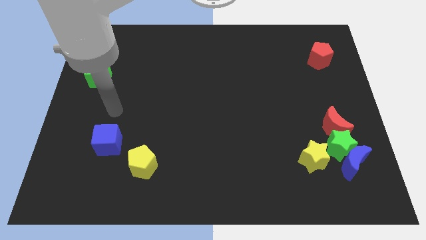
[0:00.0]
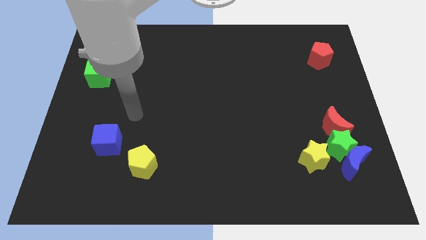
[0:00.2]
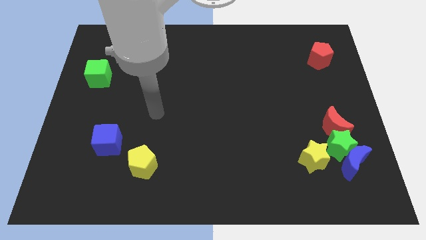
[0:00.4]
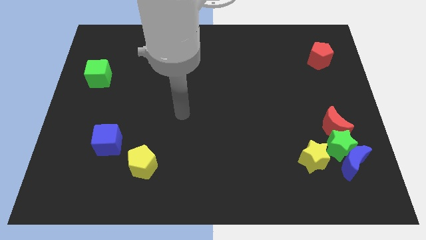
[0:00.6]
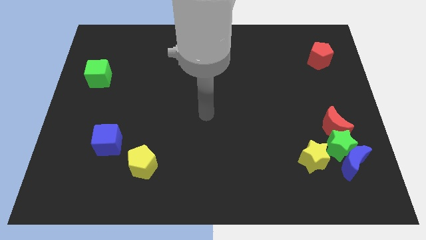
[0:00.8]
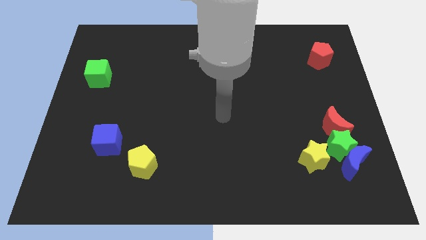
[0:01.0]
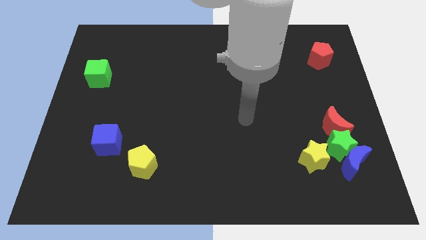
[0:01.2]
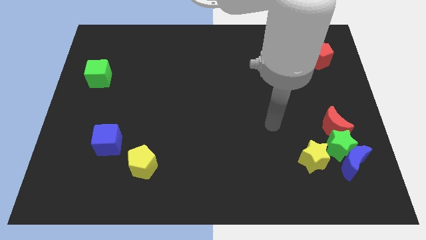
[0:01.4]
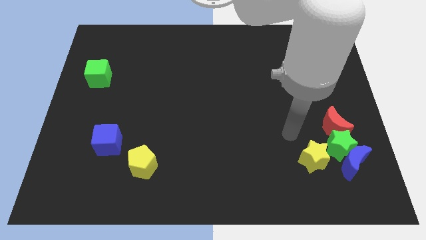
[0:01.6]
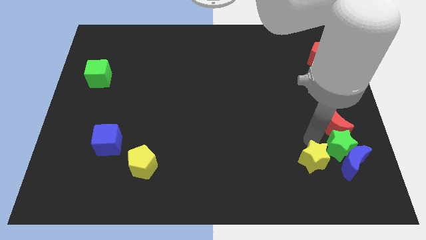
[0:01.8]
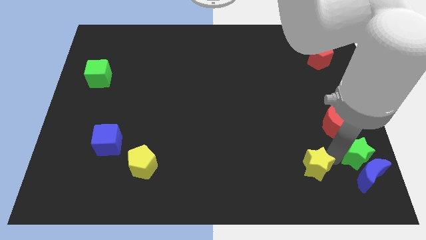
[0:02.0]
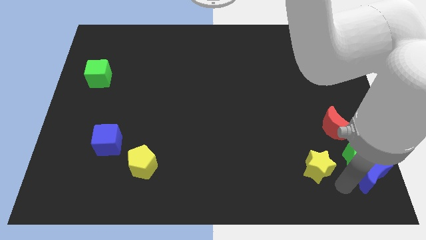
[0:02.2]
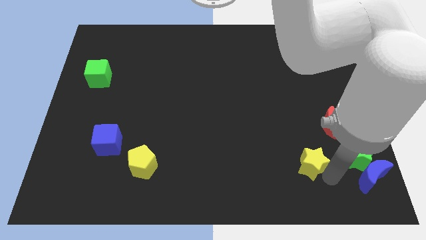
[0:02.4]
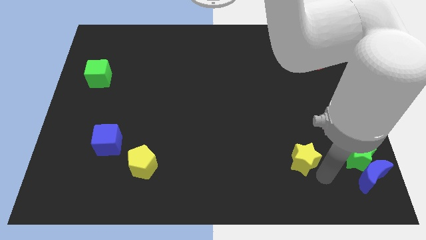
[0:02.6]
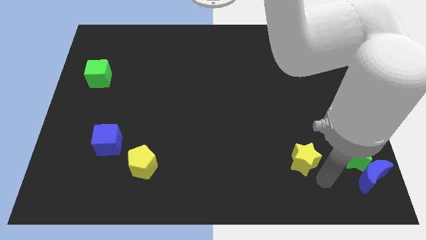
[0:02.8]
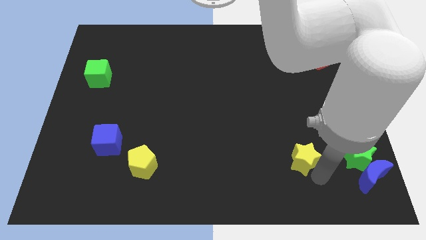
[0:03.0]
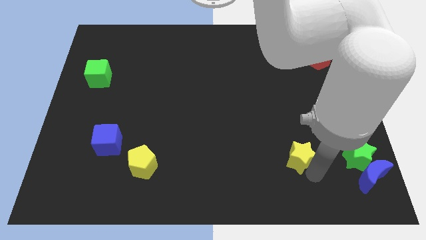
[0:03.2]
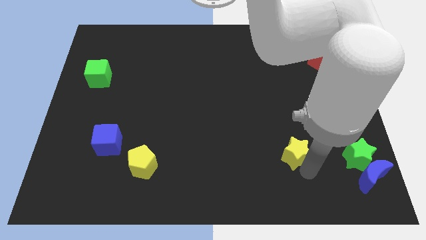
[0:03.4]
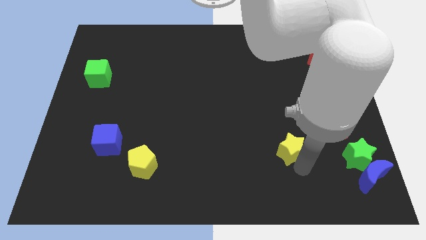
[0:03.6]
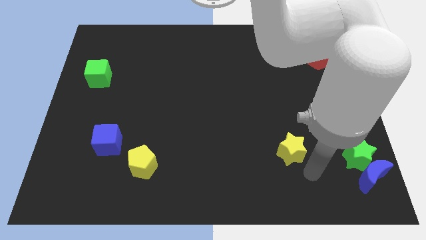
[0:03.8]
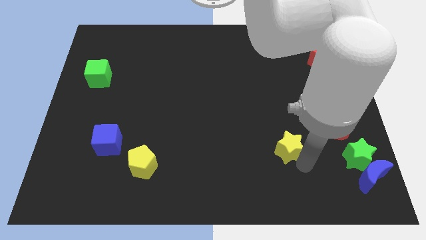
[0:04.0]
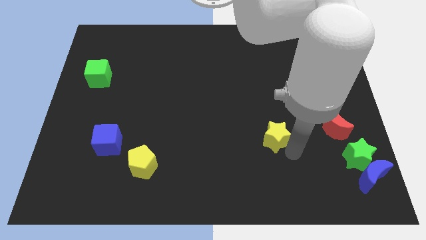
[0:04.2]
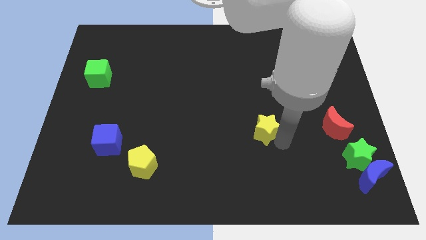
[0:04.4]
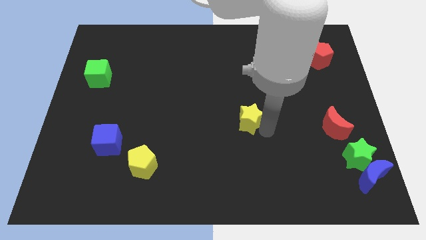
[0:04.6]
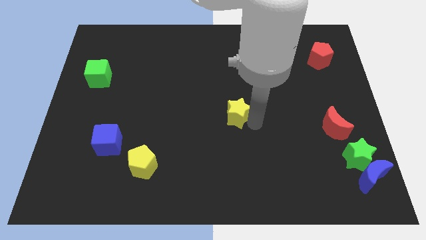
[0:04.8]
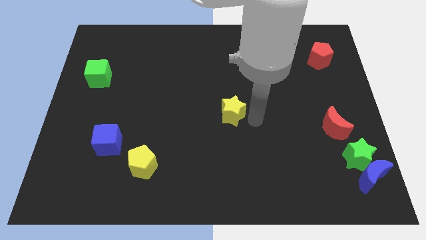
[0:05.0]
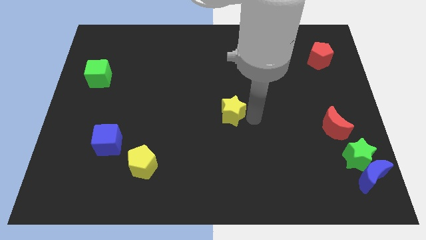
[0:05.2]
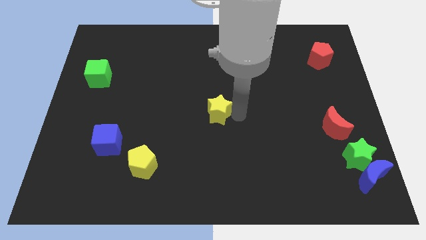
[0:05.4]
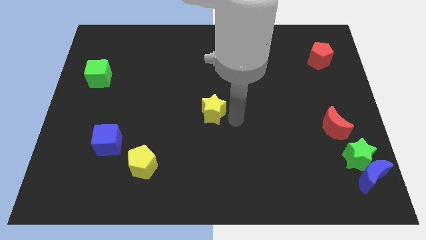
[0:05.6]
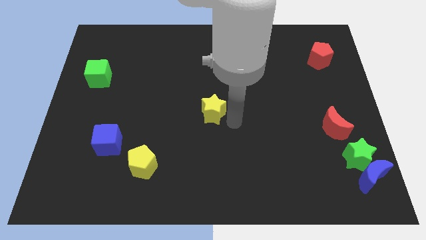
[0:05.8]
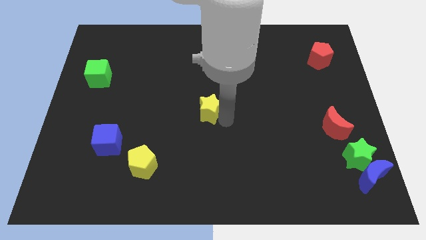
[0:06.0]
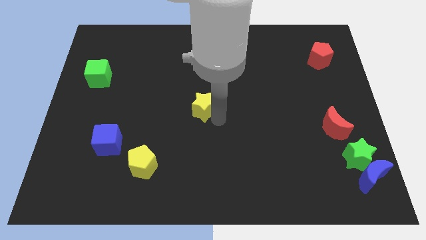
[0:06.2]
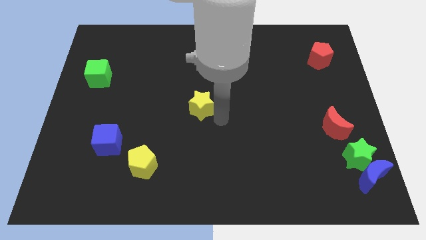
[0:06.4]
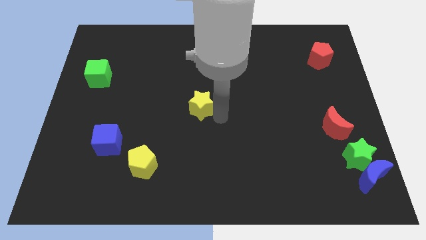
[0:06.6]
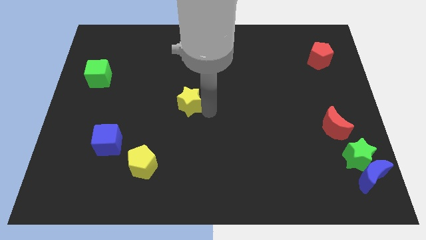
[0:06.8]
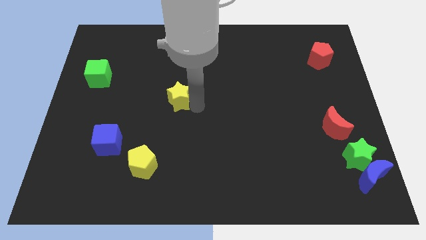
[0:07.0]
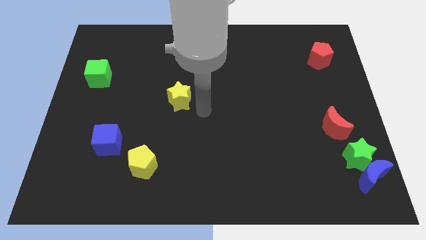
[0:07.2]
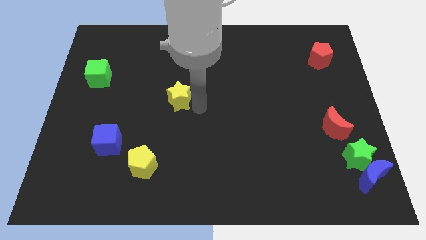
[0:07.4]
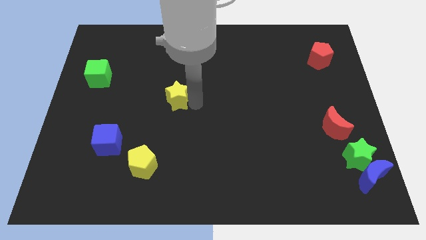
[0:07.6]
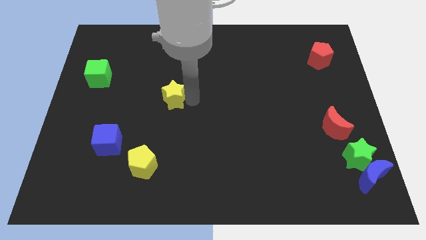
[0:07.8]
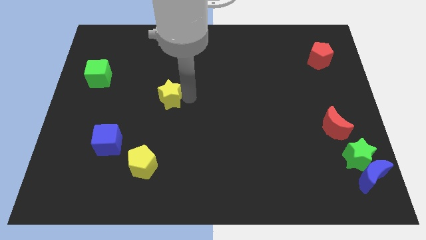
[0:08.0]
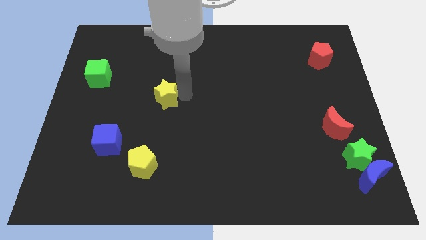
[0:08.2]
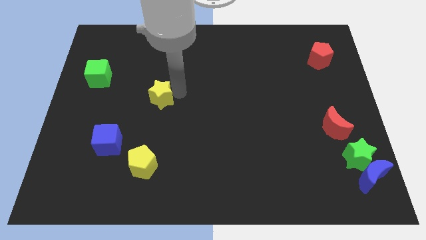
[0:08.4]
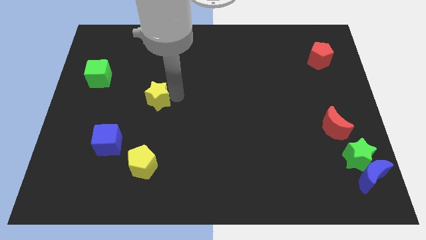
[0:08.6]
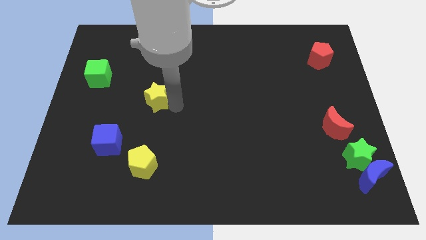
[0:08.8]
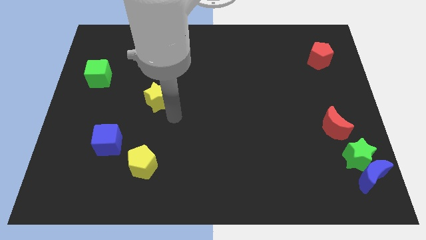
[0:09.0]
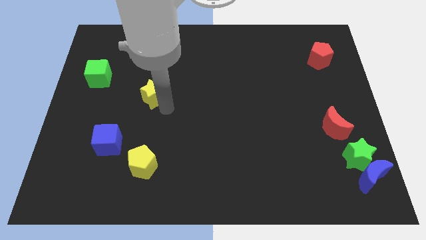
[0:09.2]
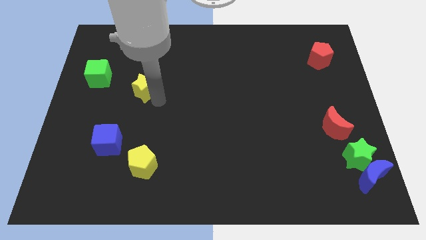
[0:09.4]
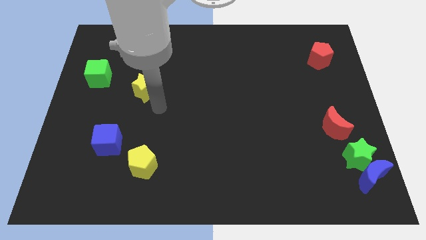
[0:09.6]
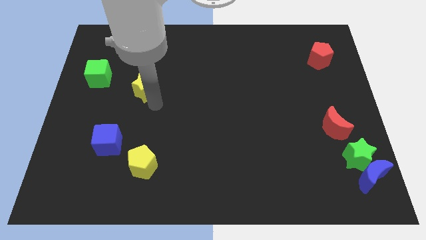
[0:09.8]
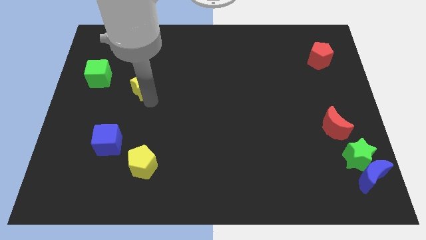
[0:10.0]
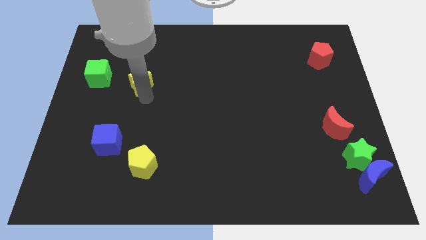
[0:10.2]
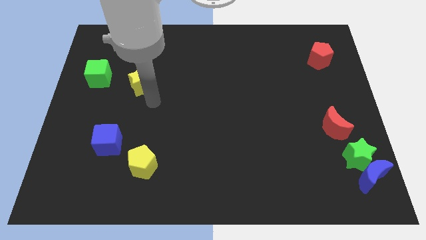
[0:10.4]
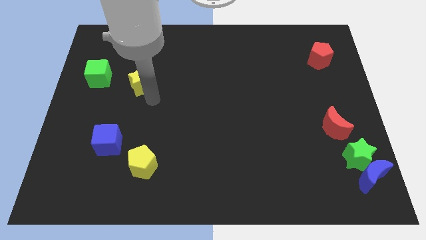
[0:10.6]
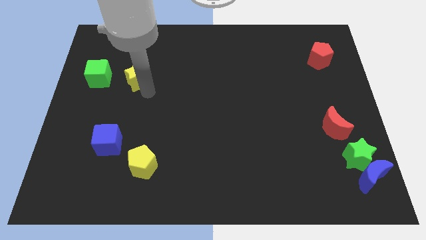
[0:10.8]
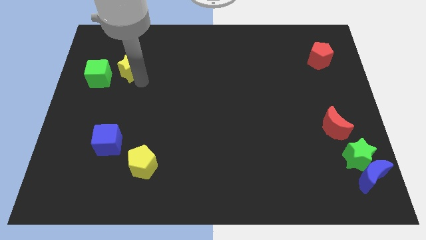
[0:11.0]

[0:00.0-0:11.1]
put the yellow star to the top right side of the green cube

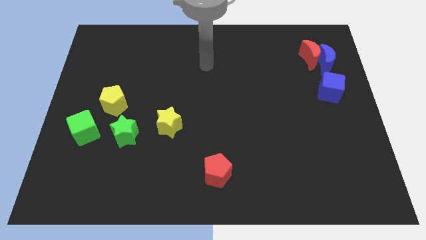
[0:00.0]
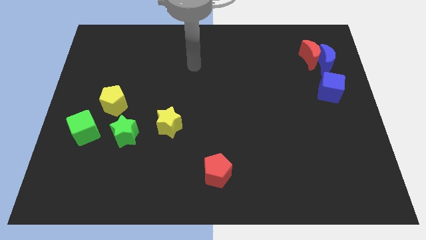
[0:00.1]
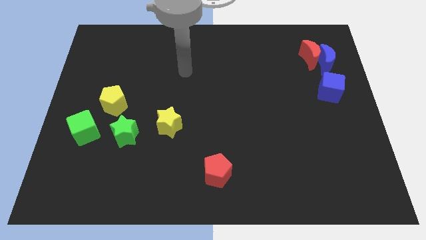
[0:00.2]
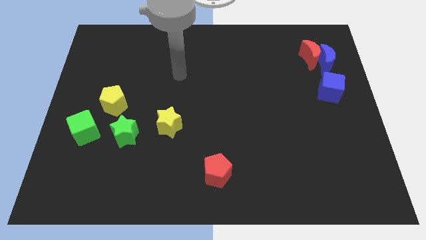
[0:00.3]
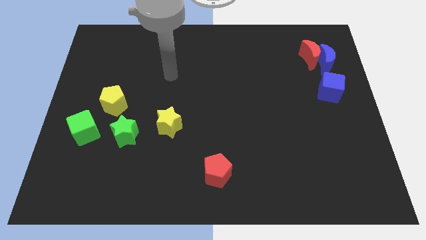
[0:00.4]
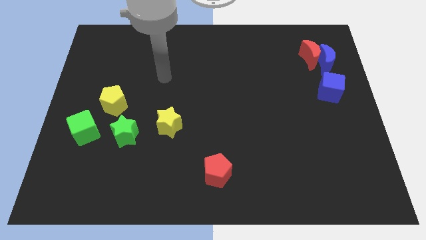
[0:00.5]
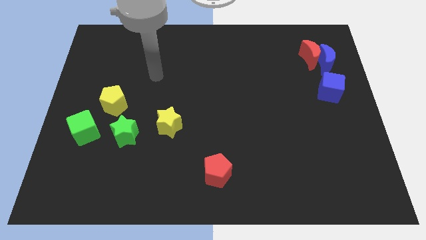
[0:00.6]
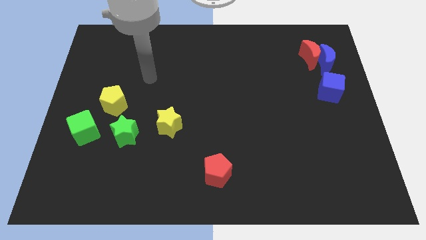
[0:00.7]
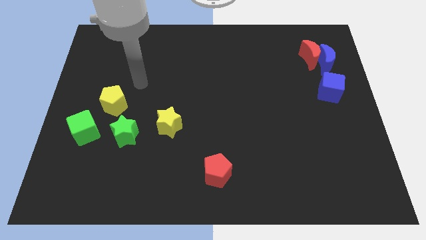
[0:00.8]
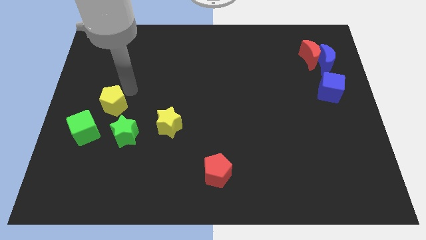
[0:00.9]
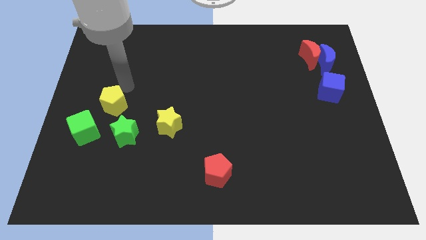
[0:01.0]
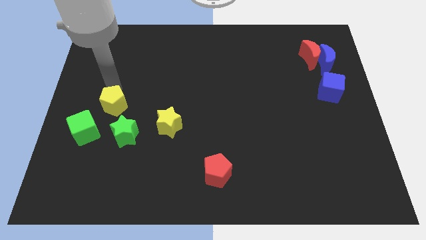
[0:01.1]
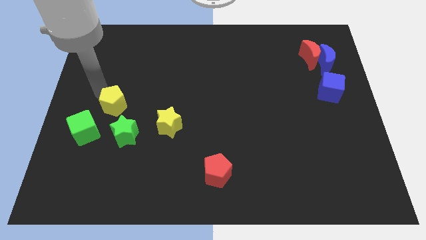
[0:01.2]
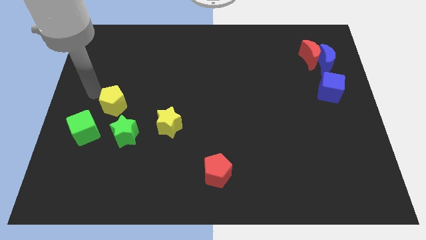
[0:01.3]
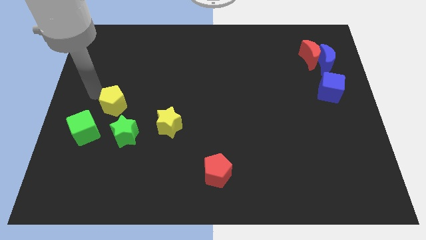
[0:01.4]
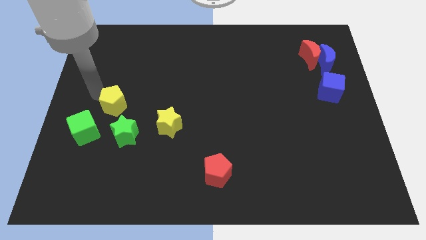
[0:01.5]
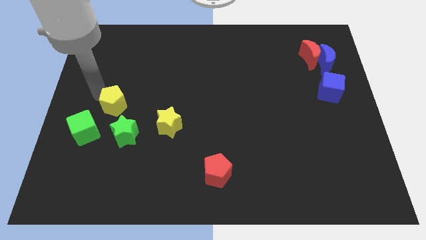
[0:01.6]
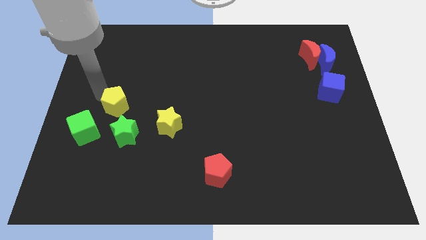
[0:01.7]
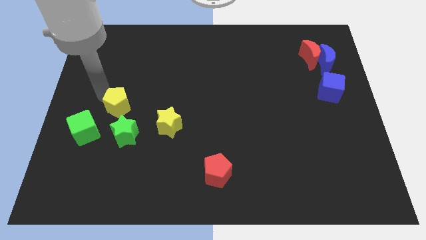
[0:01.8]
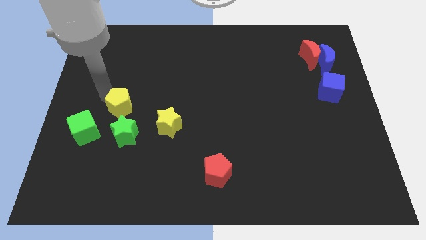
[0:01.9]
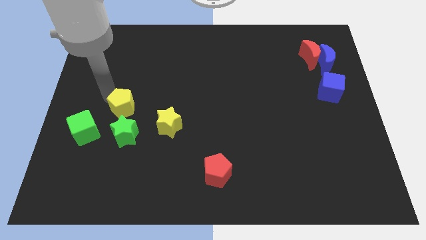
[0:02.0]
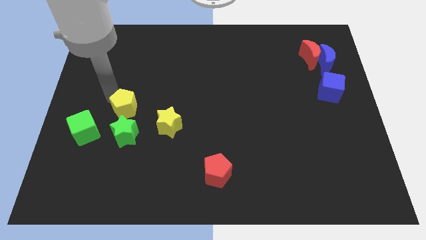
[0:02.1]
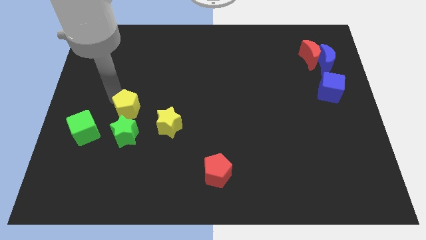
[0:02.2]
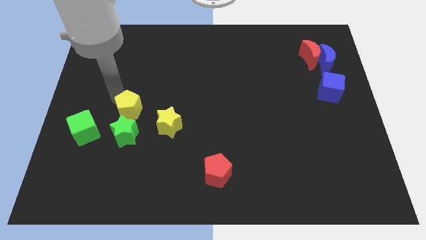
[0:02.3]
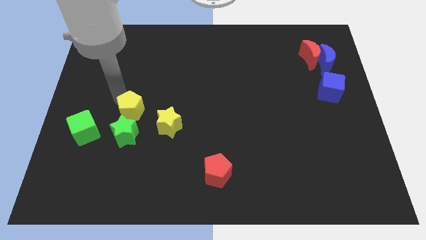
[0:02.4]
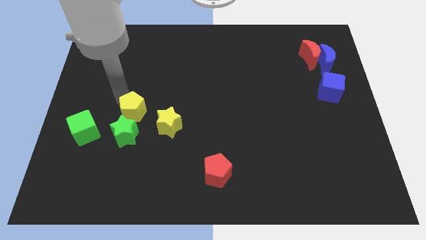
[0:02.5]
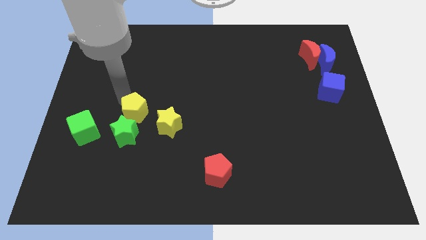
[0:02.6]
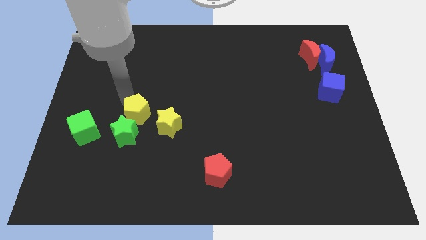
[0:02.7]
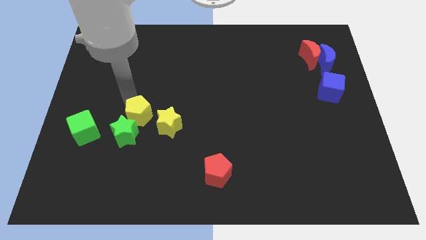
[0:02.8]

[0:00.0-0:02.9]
slide the yellow pentagon just right of the green cube
